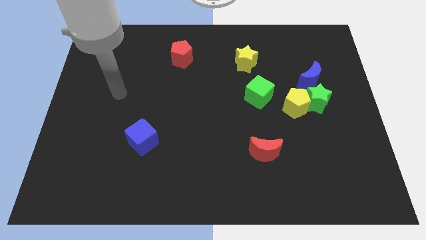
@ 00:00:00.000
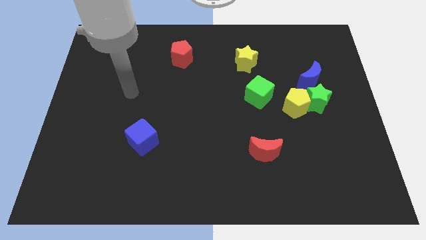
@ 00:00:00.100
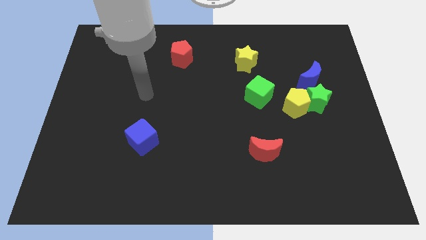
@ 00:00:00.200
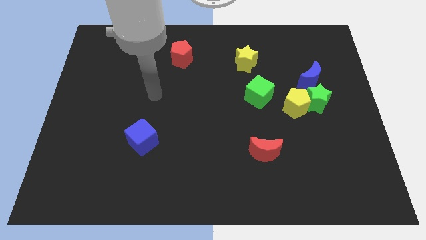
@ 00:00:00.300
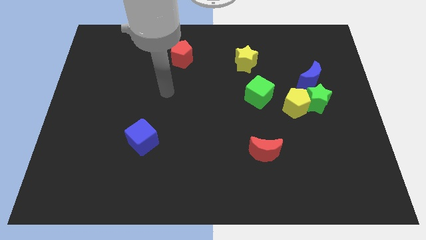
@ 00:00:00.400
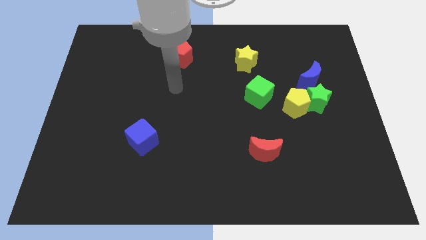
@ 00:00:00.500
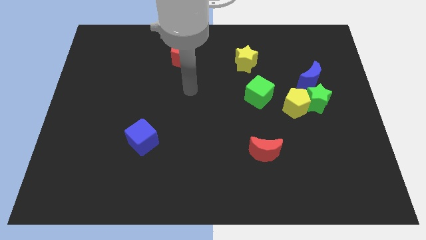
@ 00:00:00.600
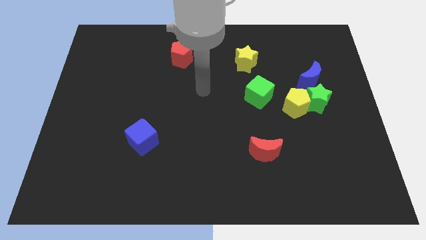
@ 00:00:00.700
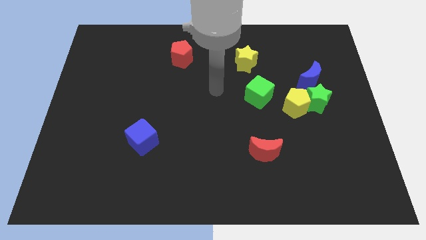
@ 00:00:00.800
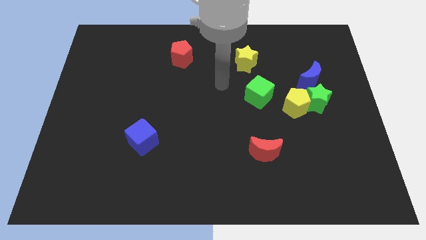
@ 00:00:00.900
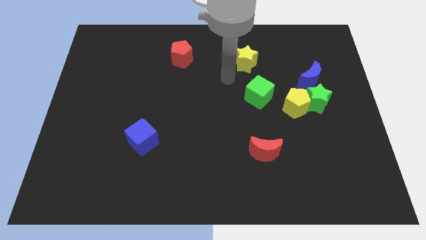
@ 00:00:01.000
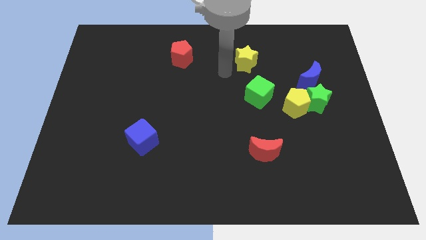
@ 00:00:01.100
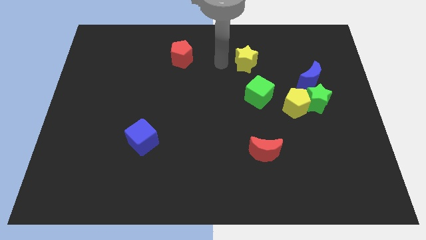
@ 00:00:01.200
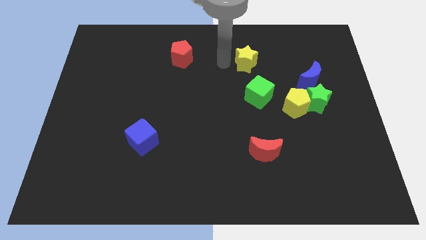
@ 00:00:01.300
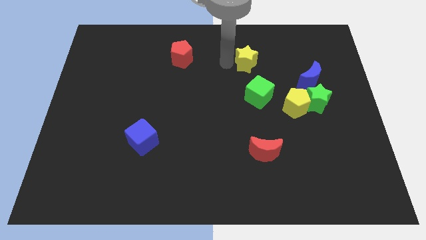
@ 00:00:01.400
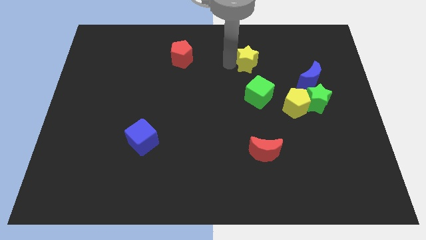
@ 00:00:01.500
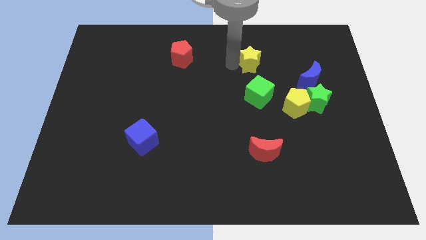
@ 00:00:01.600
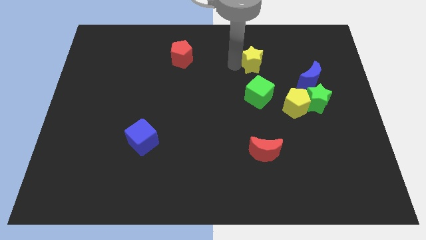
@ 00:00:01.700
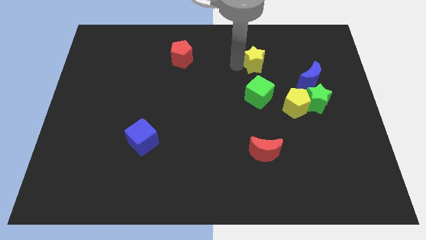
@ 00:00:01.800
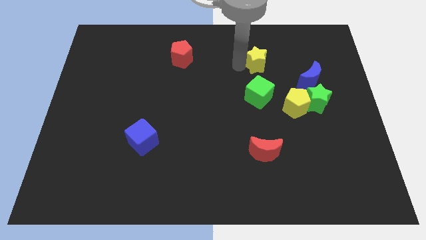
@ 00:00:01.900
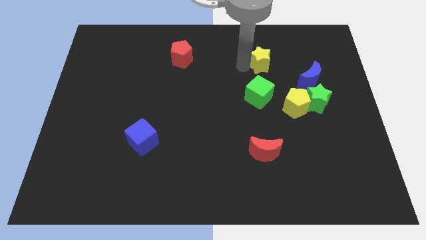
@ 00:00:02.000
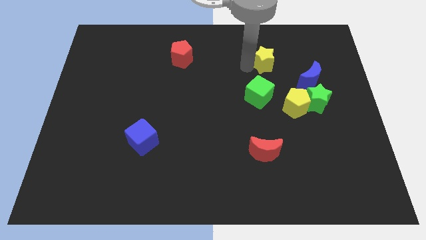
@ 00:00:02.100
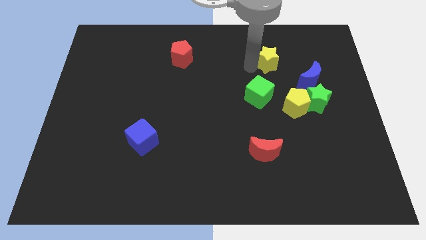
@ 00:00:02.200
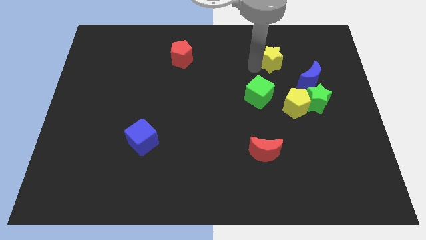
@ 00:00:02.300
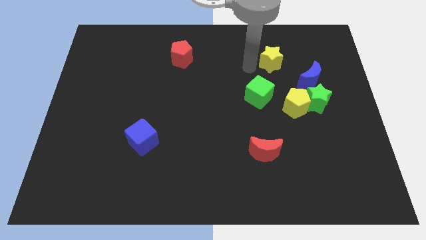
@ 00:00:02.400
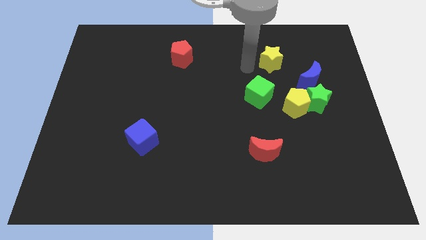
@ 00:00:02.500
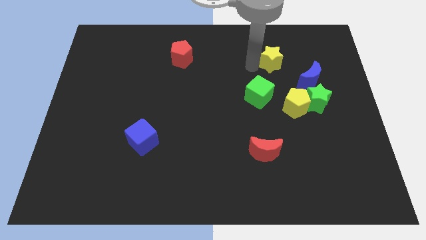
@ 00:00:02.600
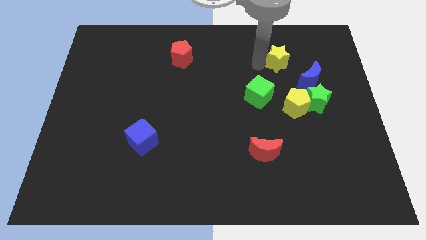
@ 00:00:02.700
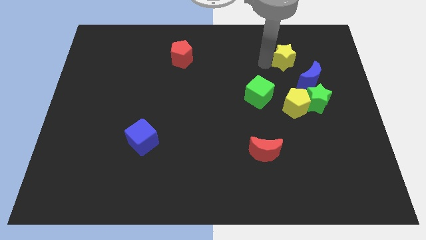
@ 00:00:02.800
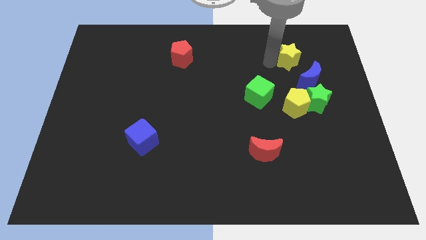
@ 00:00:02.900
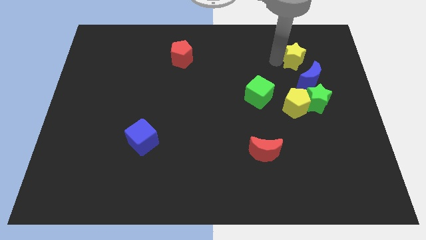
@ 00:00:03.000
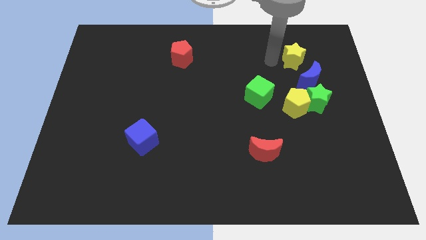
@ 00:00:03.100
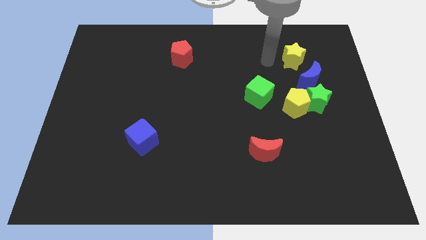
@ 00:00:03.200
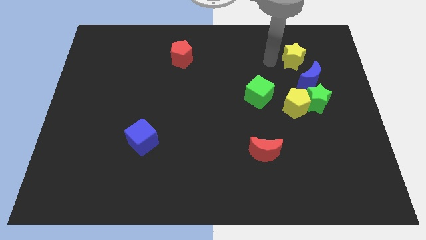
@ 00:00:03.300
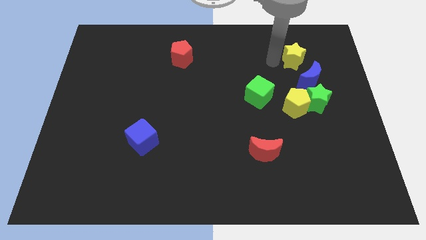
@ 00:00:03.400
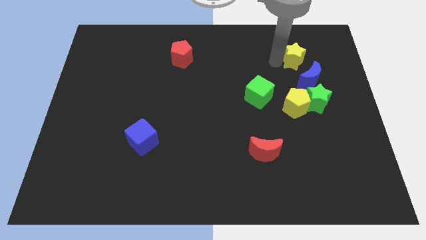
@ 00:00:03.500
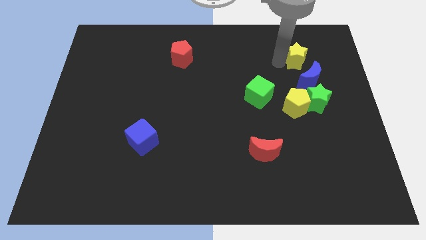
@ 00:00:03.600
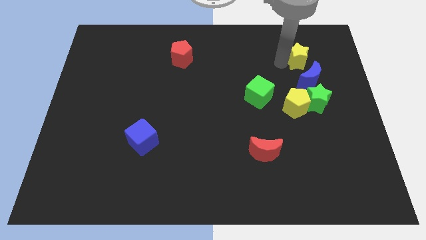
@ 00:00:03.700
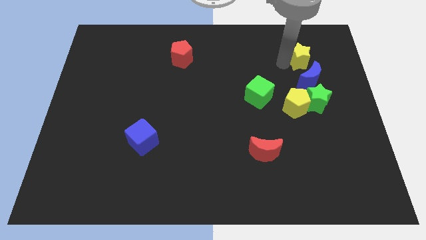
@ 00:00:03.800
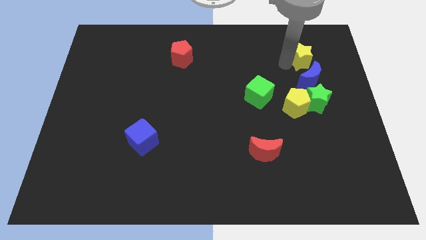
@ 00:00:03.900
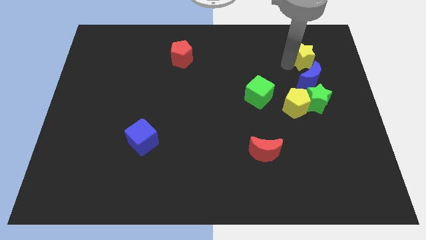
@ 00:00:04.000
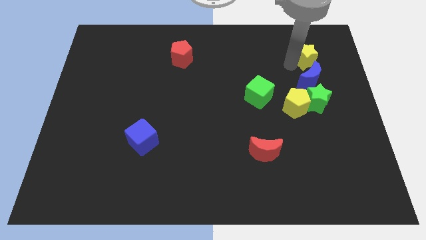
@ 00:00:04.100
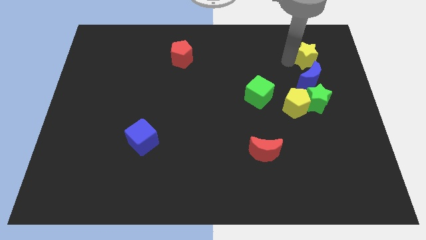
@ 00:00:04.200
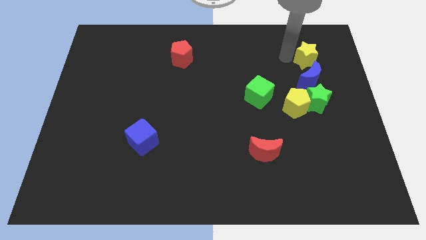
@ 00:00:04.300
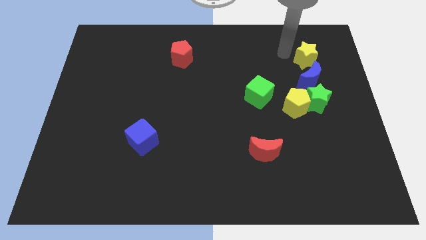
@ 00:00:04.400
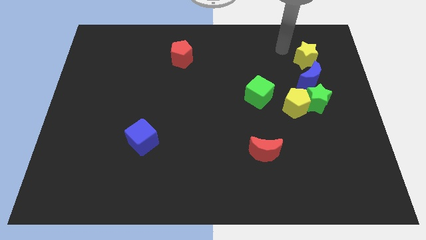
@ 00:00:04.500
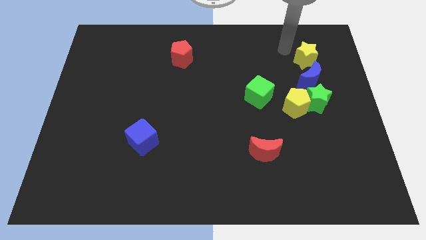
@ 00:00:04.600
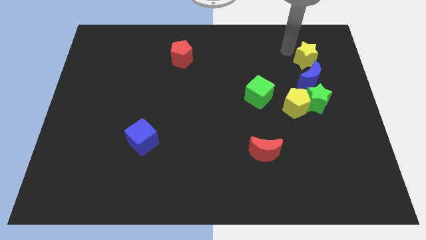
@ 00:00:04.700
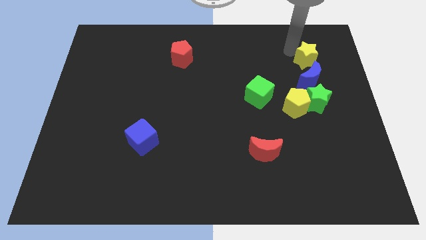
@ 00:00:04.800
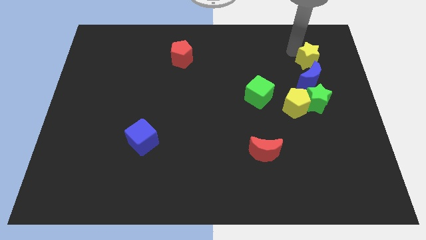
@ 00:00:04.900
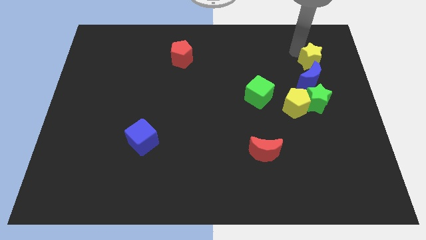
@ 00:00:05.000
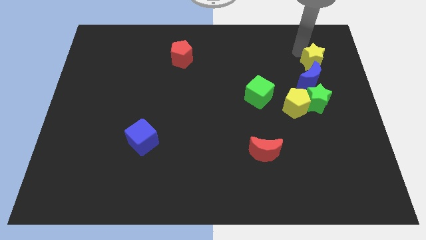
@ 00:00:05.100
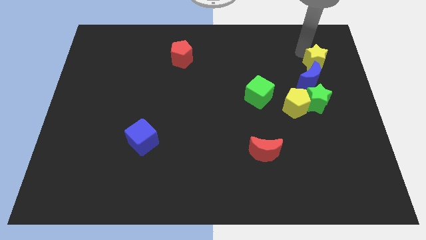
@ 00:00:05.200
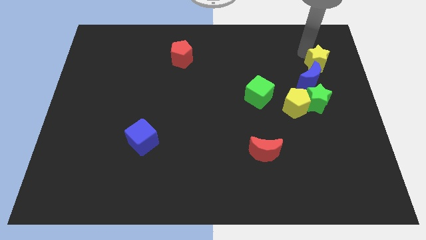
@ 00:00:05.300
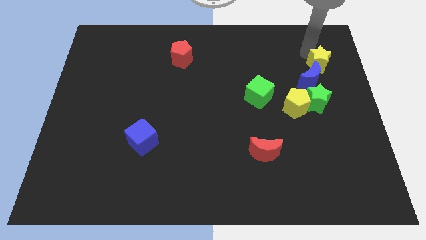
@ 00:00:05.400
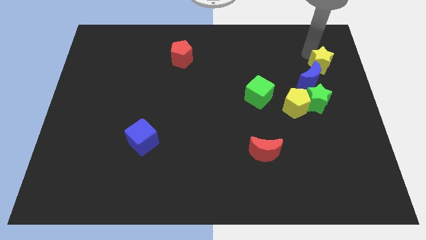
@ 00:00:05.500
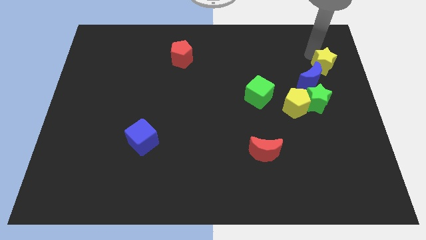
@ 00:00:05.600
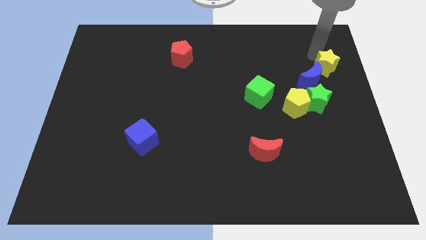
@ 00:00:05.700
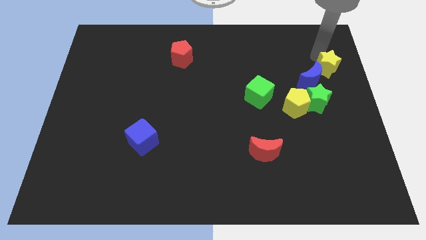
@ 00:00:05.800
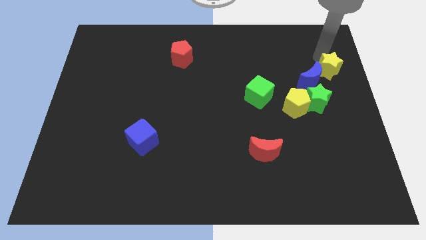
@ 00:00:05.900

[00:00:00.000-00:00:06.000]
put the yellow star to the right side of the board

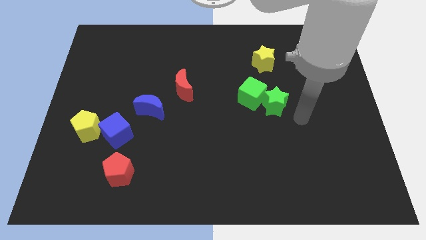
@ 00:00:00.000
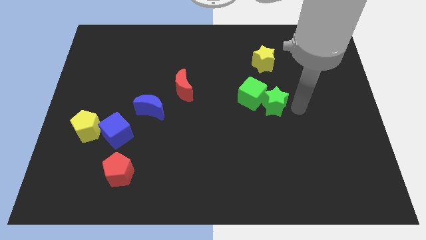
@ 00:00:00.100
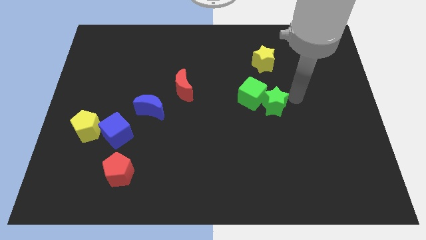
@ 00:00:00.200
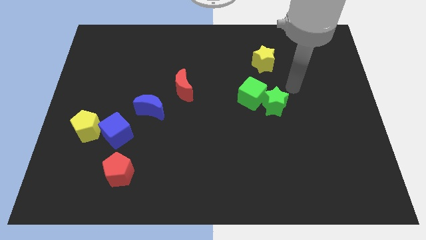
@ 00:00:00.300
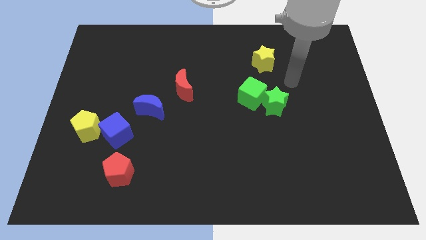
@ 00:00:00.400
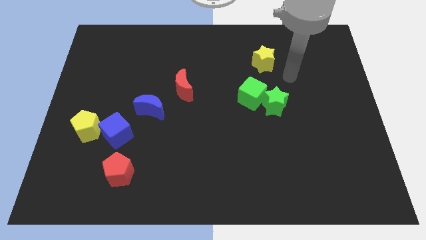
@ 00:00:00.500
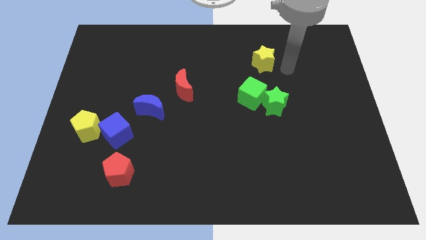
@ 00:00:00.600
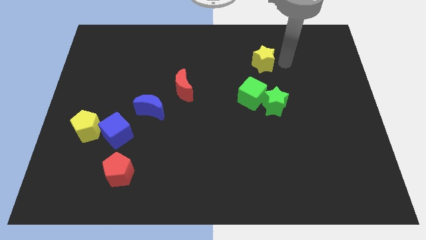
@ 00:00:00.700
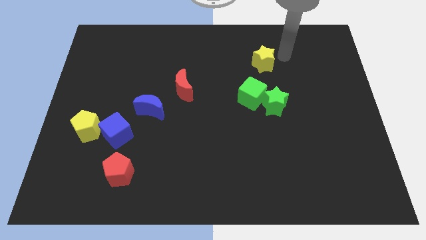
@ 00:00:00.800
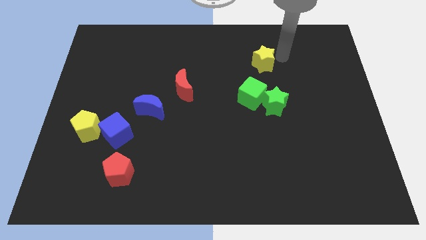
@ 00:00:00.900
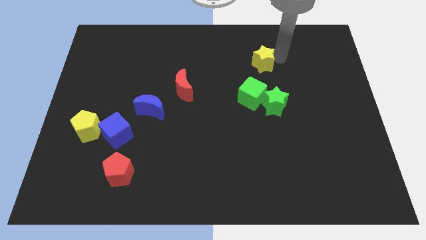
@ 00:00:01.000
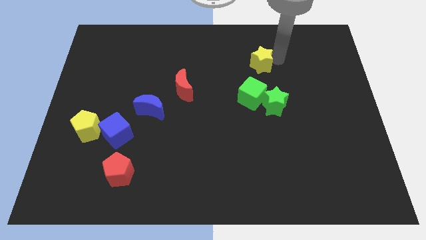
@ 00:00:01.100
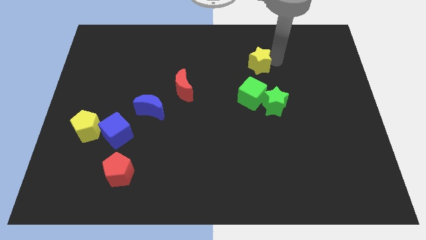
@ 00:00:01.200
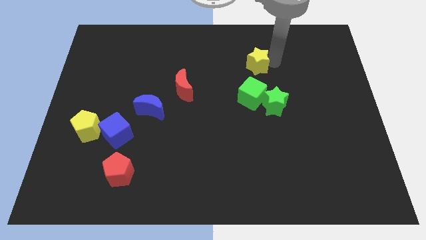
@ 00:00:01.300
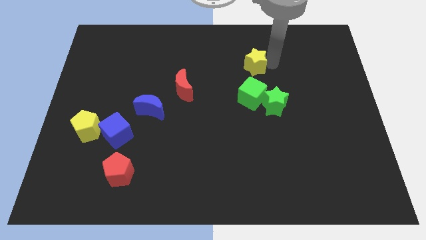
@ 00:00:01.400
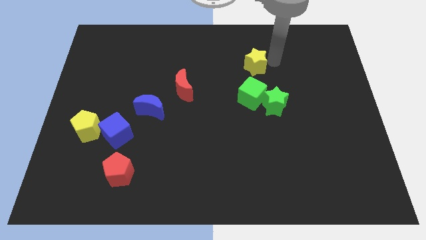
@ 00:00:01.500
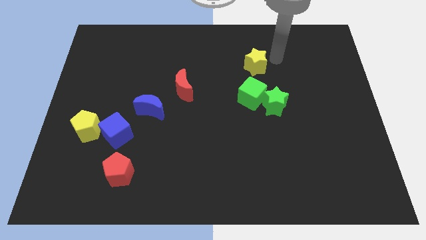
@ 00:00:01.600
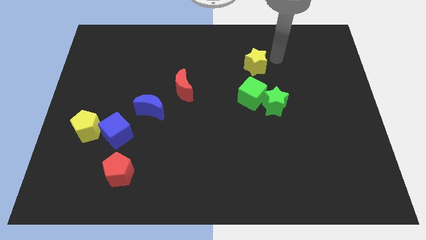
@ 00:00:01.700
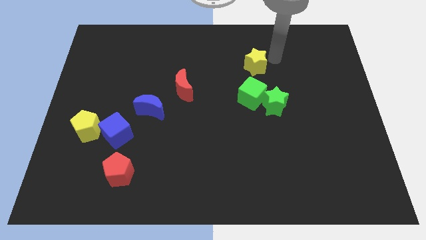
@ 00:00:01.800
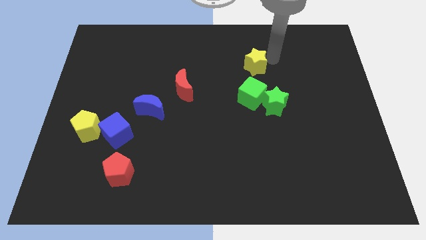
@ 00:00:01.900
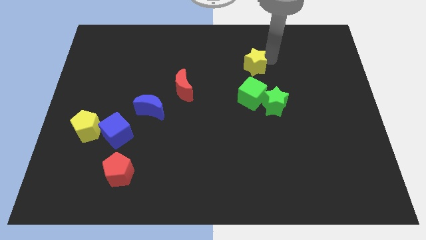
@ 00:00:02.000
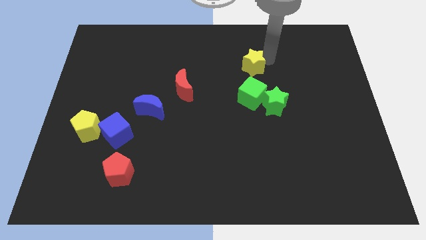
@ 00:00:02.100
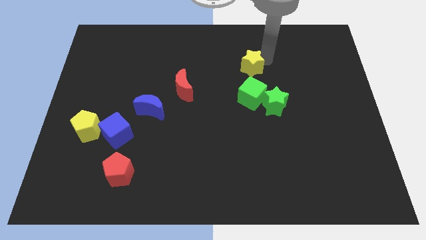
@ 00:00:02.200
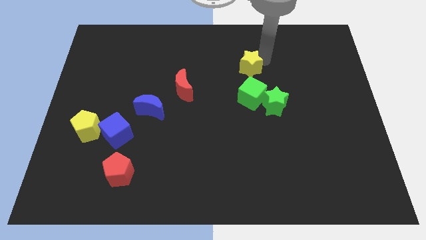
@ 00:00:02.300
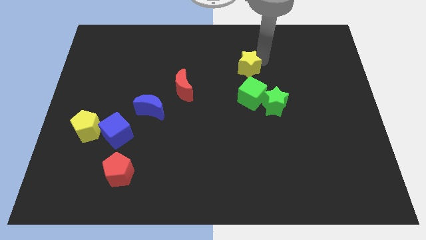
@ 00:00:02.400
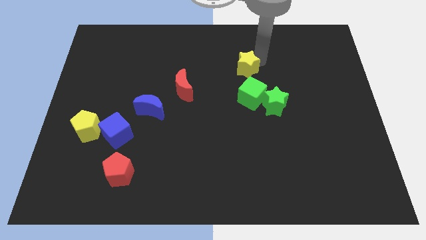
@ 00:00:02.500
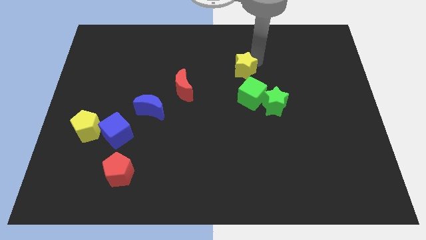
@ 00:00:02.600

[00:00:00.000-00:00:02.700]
move the yellow star to the middle
